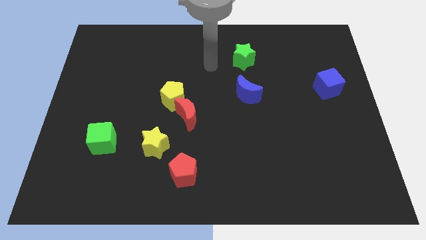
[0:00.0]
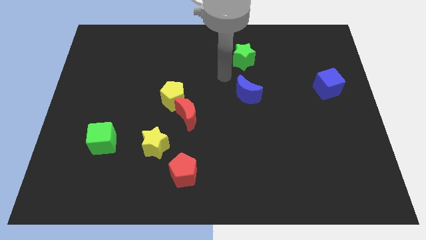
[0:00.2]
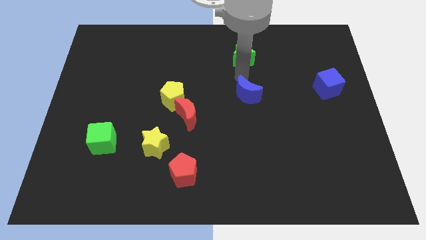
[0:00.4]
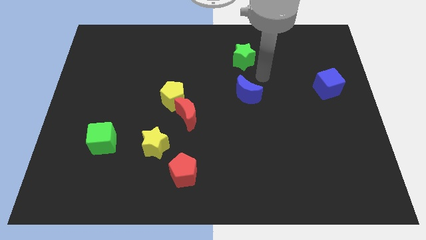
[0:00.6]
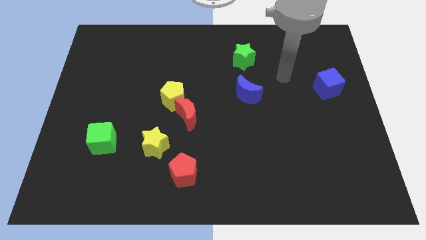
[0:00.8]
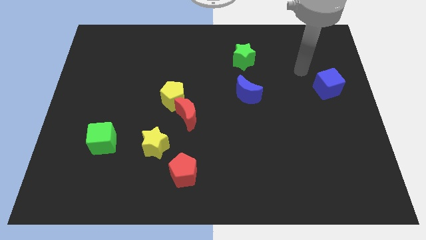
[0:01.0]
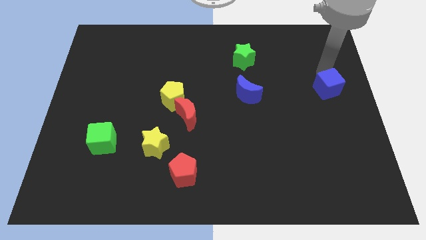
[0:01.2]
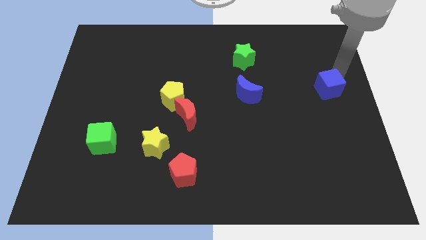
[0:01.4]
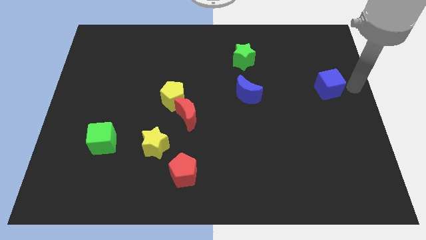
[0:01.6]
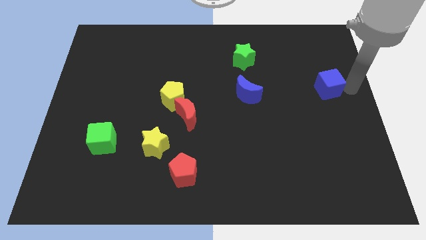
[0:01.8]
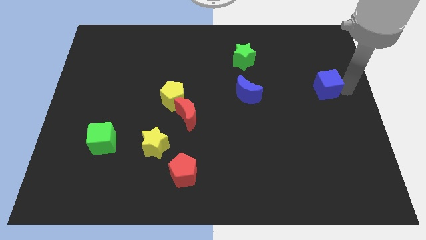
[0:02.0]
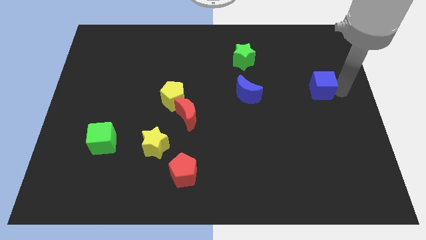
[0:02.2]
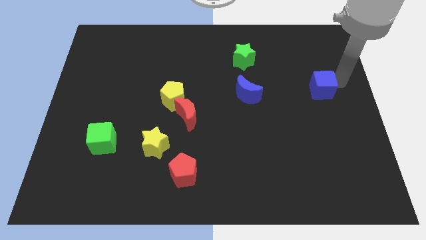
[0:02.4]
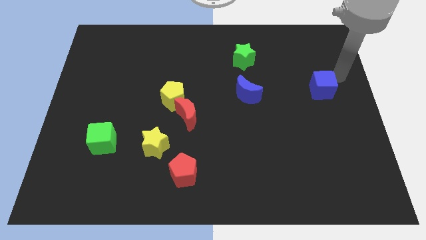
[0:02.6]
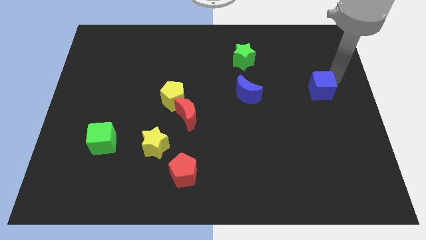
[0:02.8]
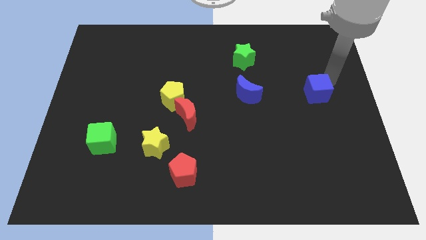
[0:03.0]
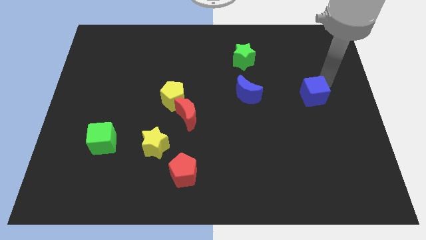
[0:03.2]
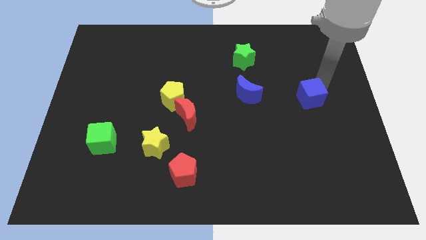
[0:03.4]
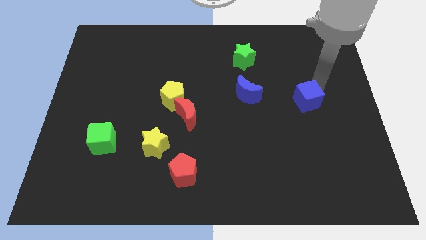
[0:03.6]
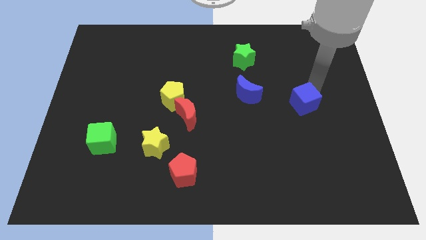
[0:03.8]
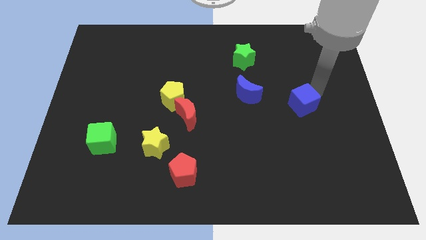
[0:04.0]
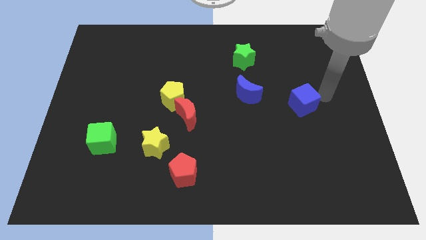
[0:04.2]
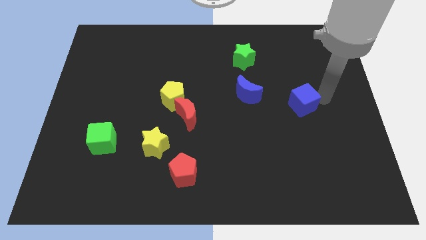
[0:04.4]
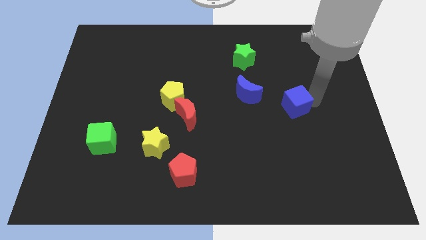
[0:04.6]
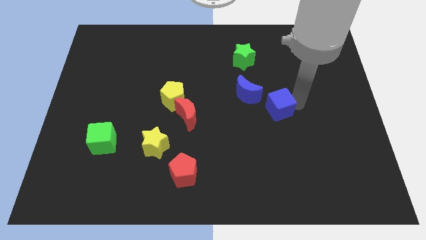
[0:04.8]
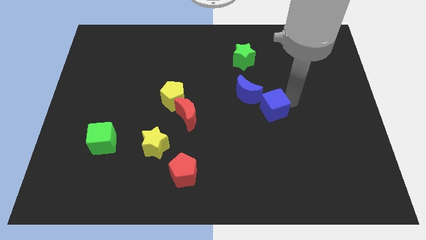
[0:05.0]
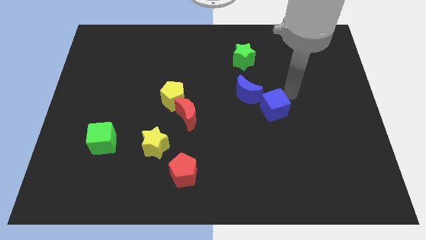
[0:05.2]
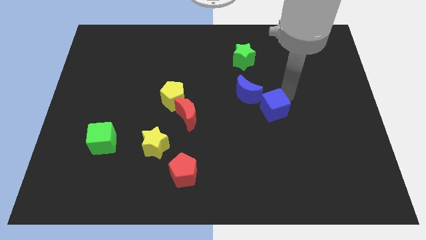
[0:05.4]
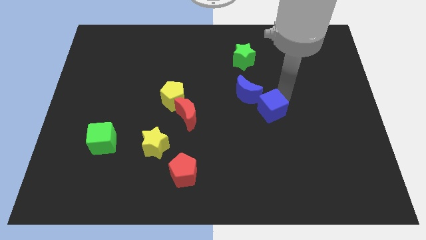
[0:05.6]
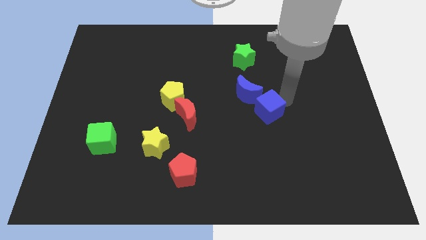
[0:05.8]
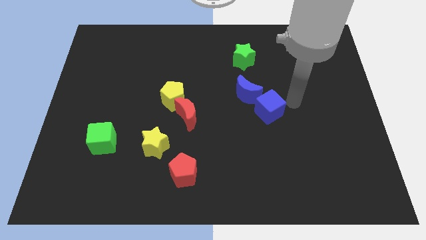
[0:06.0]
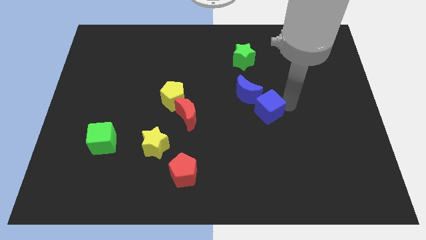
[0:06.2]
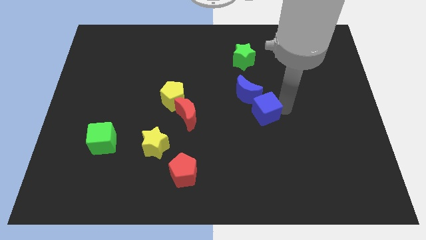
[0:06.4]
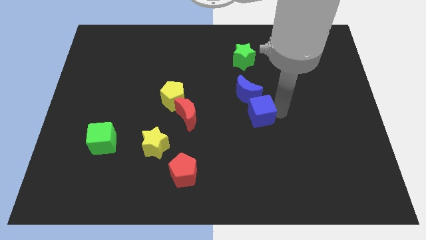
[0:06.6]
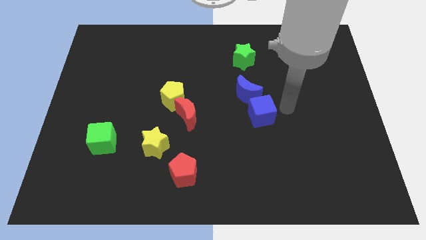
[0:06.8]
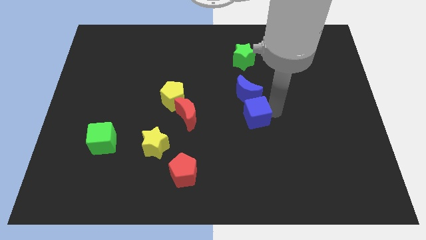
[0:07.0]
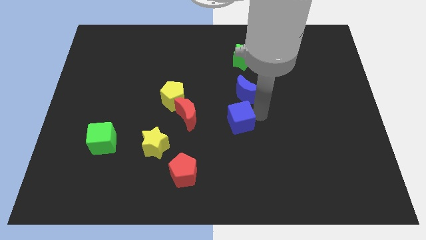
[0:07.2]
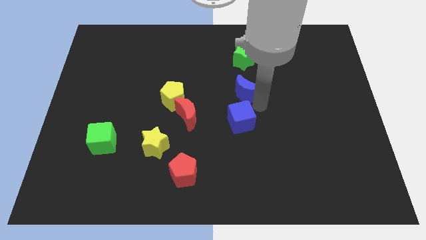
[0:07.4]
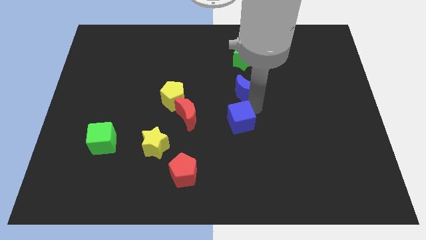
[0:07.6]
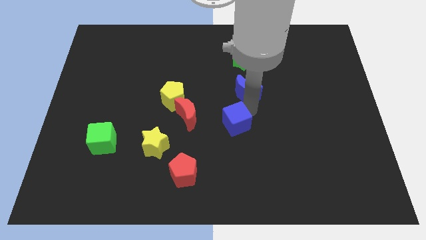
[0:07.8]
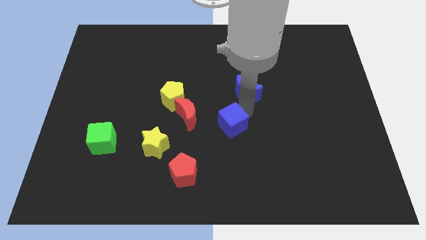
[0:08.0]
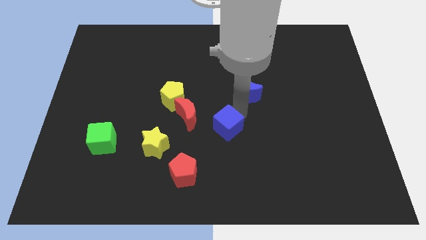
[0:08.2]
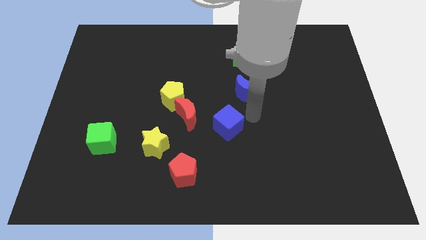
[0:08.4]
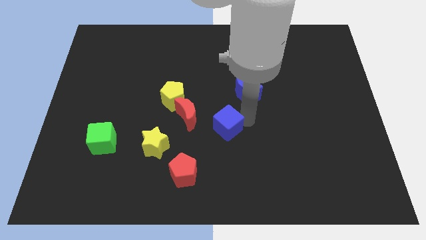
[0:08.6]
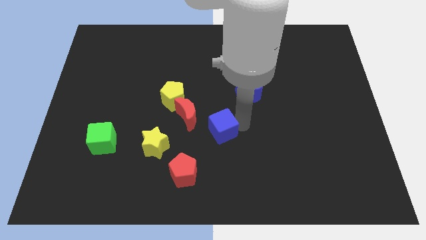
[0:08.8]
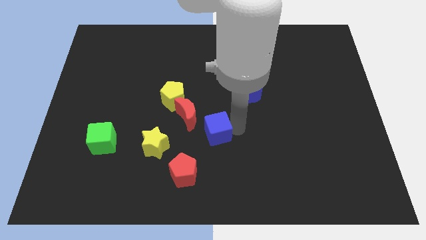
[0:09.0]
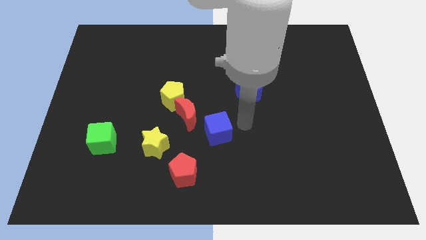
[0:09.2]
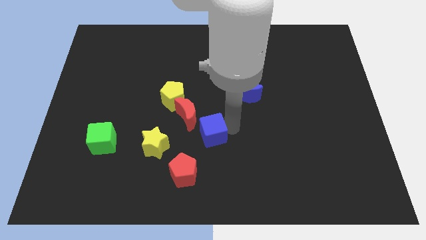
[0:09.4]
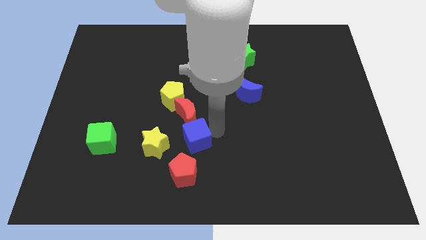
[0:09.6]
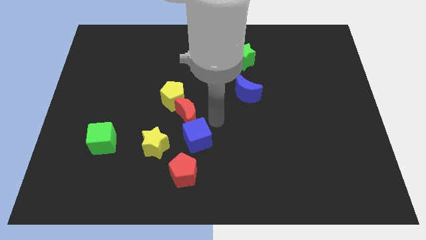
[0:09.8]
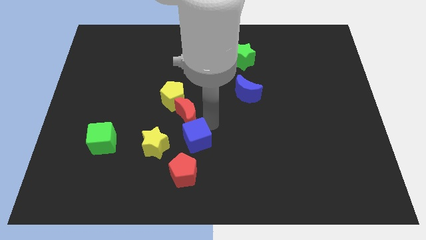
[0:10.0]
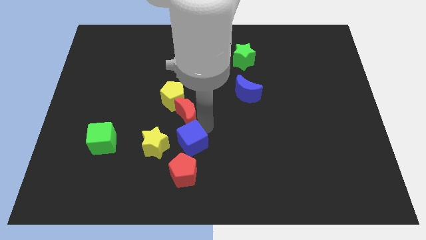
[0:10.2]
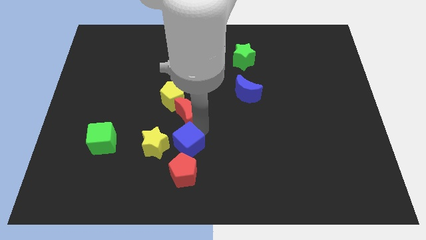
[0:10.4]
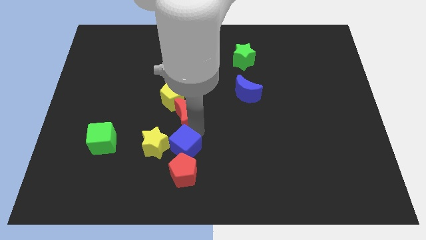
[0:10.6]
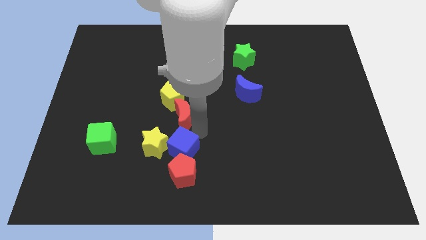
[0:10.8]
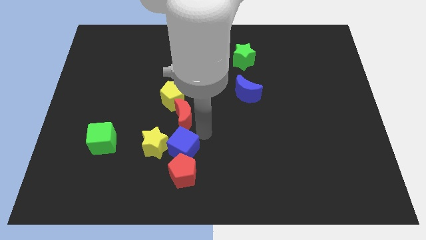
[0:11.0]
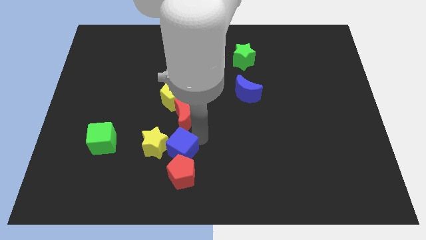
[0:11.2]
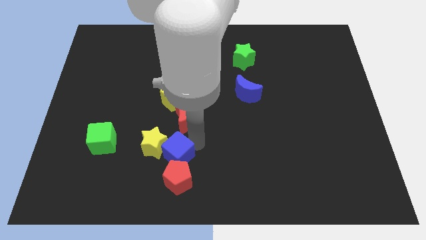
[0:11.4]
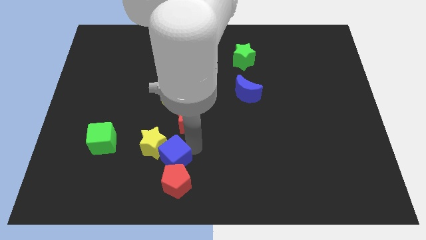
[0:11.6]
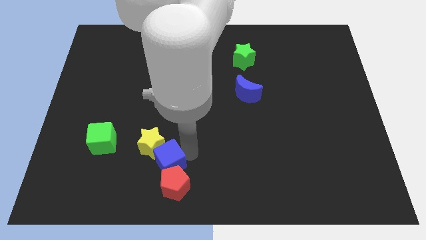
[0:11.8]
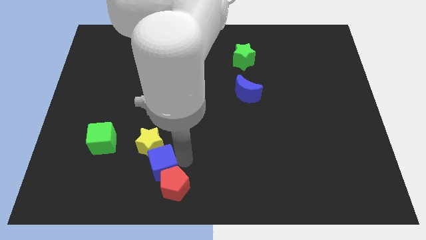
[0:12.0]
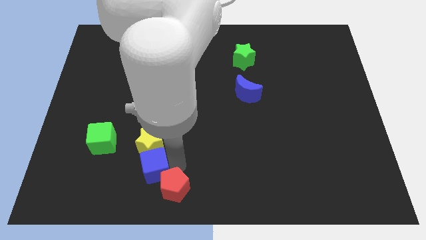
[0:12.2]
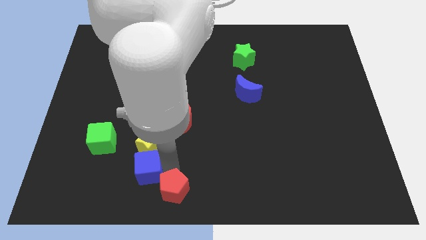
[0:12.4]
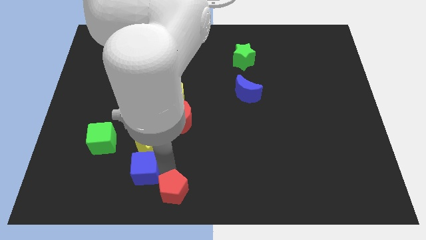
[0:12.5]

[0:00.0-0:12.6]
move the blue cube to the bottom right side of the green cube

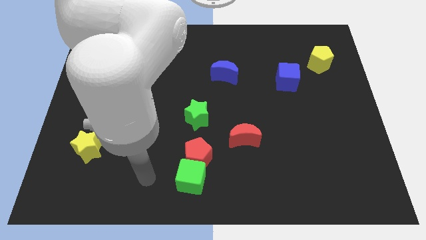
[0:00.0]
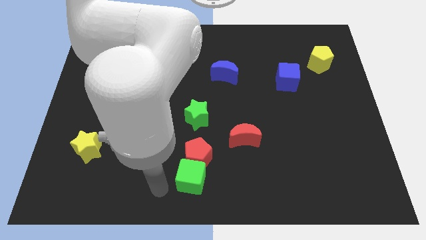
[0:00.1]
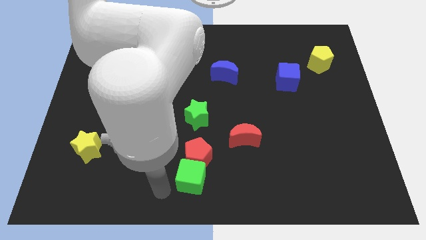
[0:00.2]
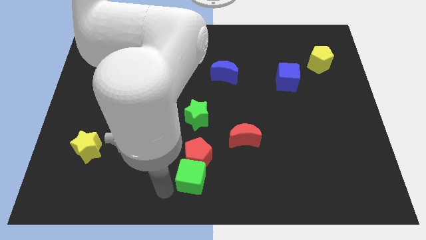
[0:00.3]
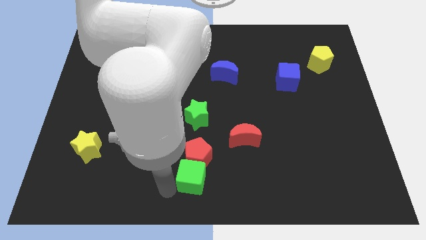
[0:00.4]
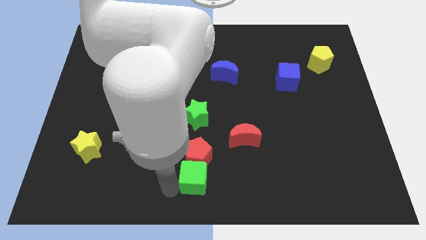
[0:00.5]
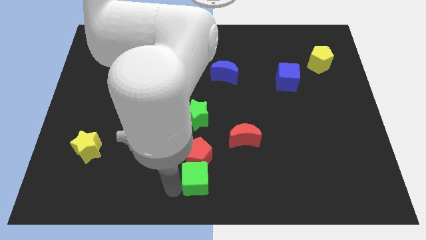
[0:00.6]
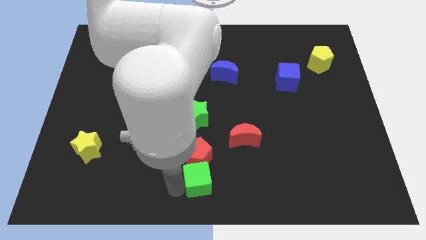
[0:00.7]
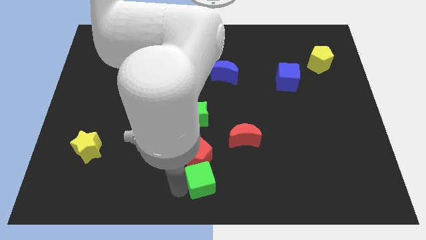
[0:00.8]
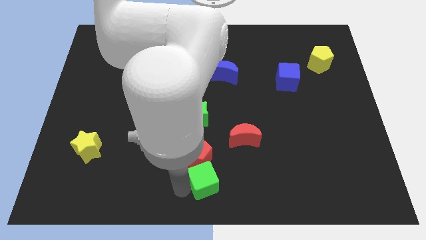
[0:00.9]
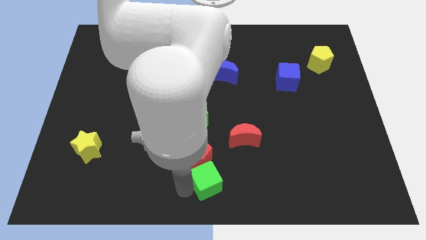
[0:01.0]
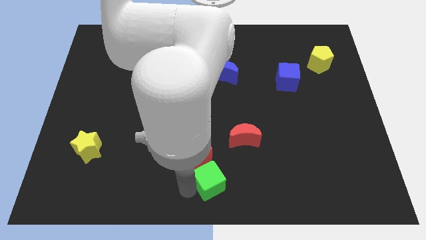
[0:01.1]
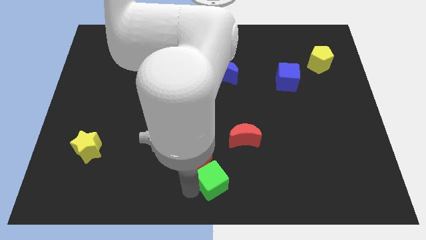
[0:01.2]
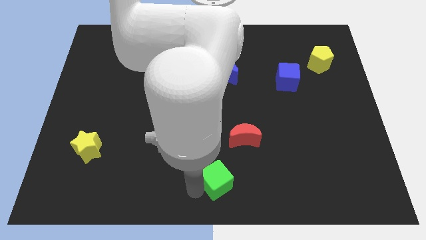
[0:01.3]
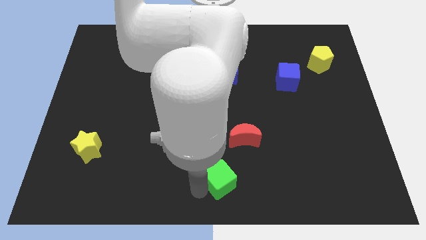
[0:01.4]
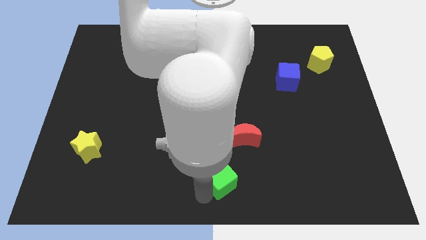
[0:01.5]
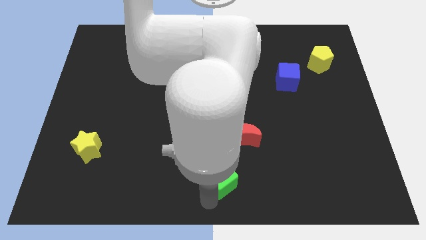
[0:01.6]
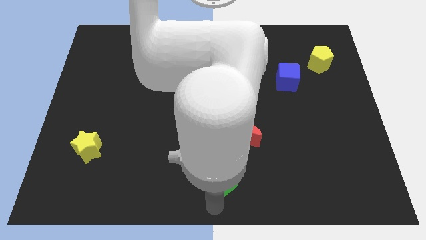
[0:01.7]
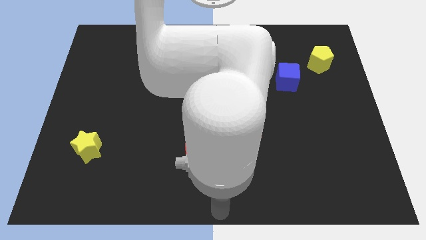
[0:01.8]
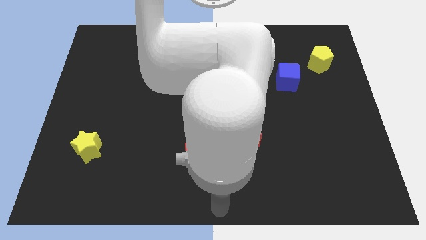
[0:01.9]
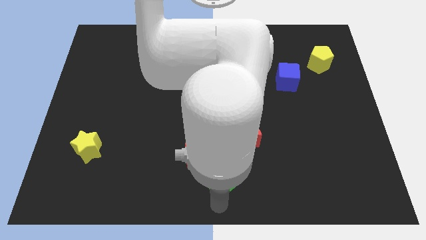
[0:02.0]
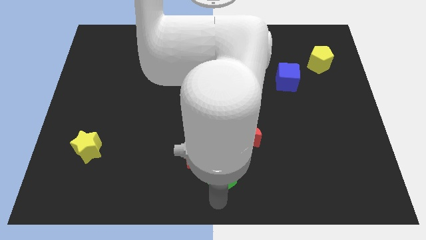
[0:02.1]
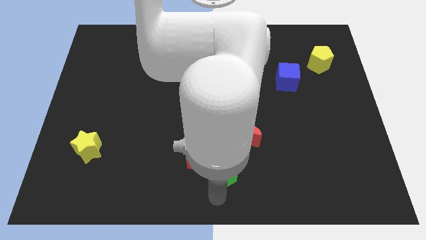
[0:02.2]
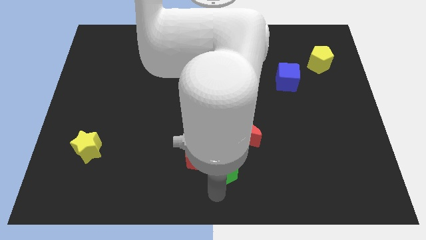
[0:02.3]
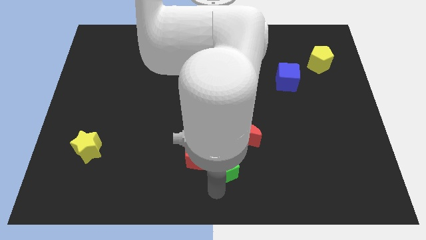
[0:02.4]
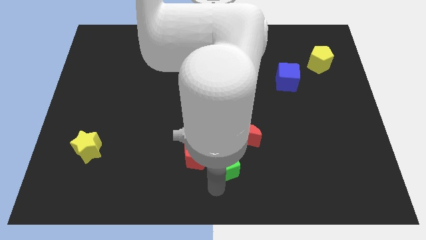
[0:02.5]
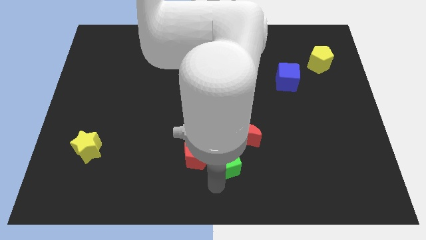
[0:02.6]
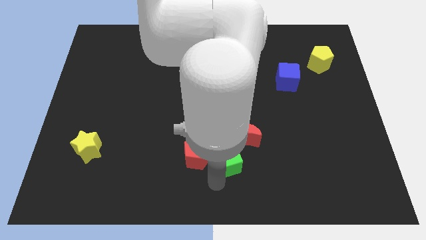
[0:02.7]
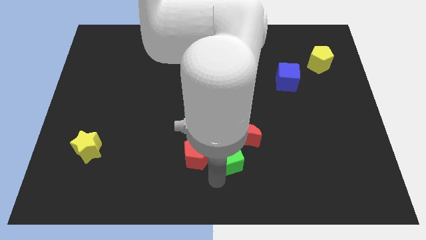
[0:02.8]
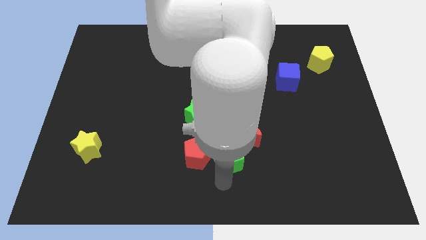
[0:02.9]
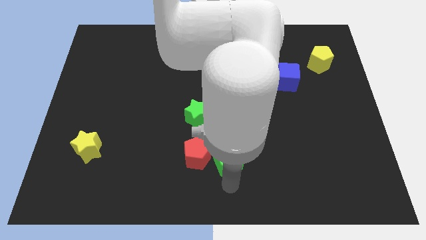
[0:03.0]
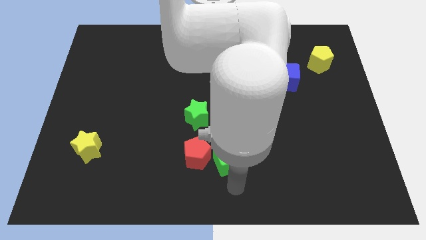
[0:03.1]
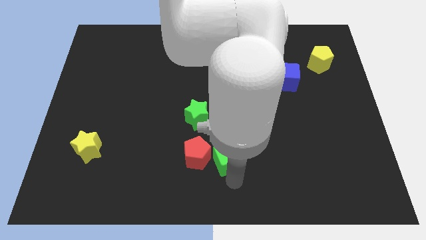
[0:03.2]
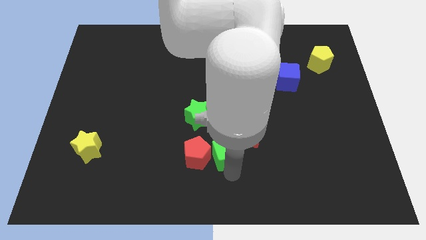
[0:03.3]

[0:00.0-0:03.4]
slide the green cube diagonally up and to the right of the red pentagon
